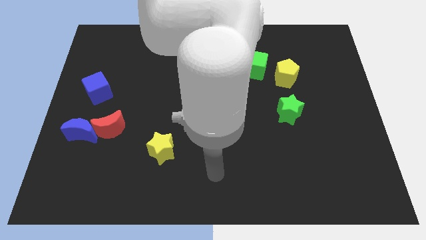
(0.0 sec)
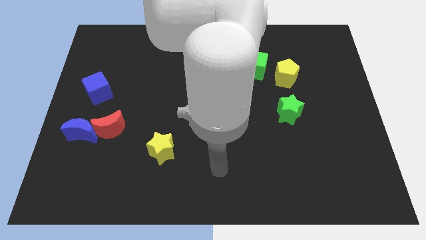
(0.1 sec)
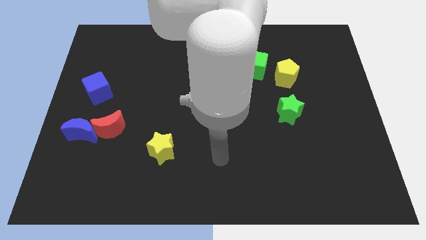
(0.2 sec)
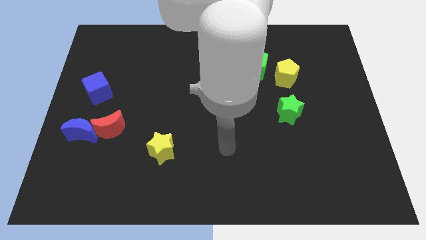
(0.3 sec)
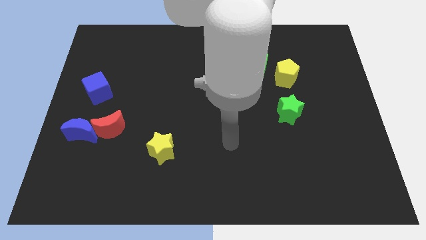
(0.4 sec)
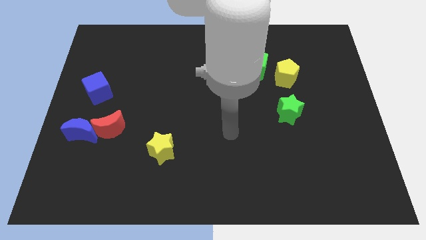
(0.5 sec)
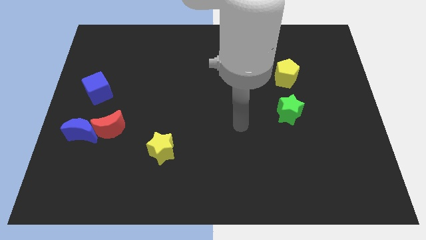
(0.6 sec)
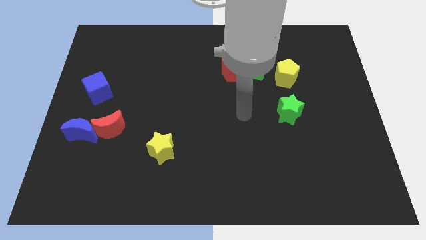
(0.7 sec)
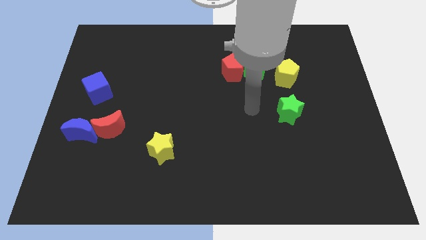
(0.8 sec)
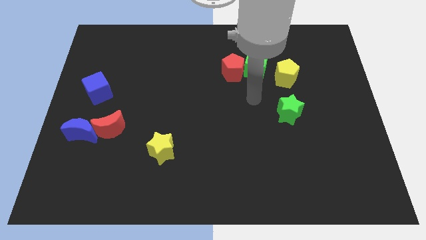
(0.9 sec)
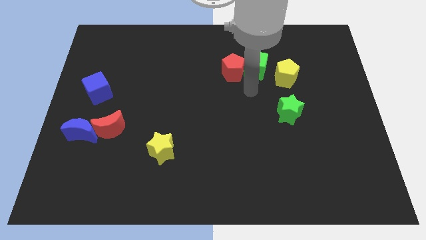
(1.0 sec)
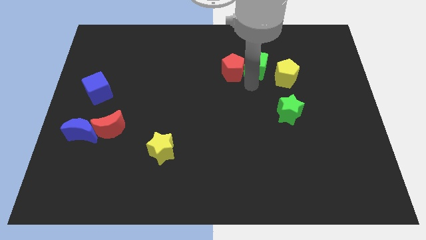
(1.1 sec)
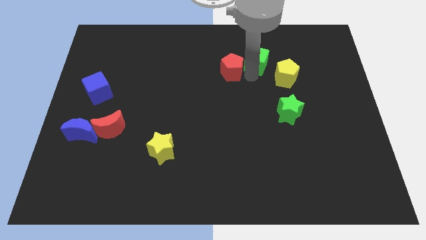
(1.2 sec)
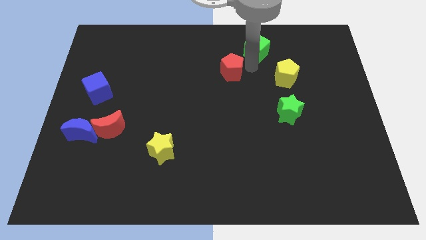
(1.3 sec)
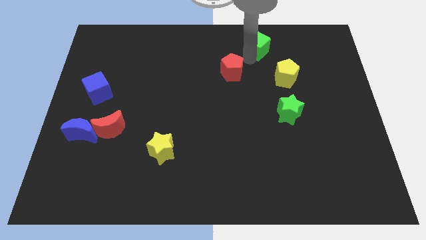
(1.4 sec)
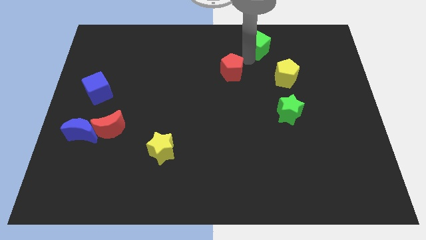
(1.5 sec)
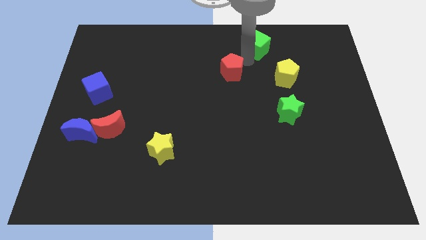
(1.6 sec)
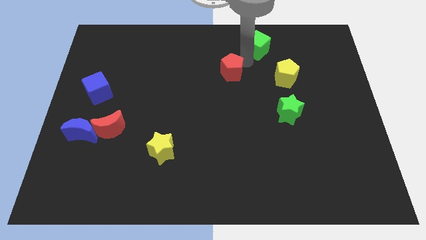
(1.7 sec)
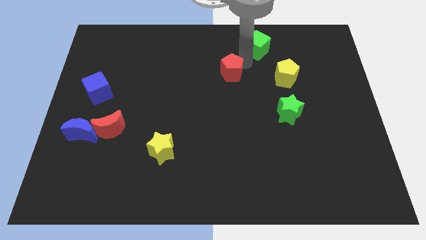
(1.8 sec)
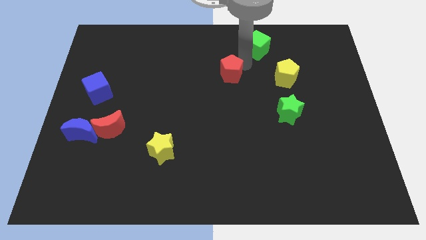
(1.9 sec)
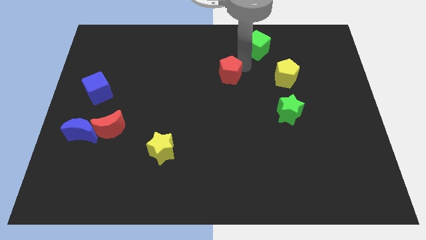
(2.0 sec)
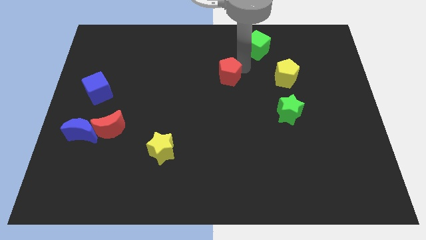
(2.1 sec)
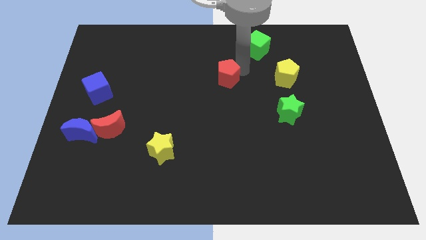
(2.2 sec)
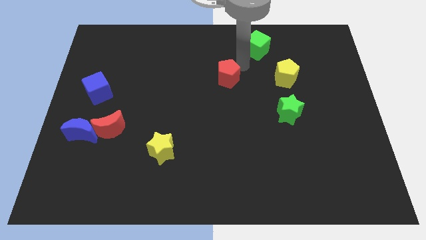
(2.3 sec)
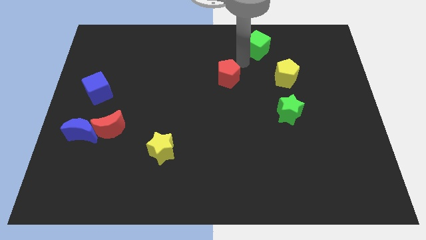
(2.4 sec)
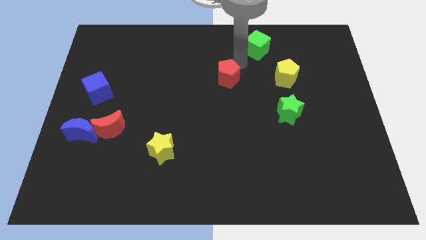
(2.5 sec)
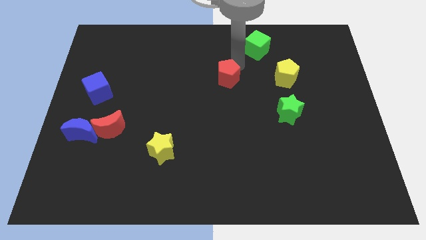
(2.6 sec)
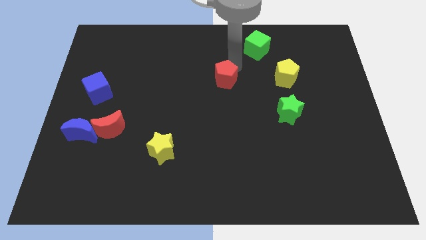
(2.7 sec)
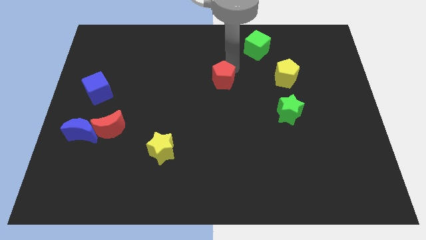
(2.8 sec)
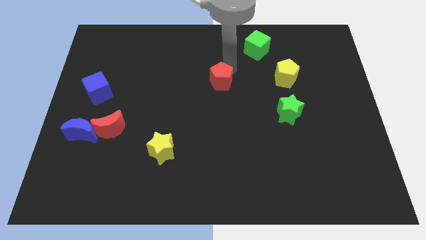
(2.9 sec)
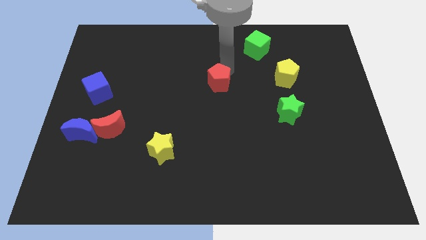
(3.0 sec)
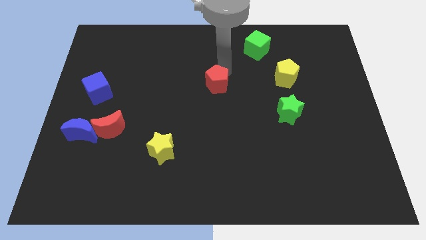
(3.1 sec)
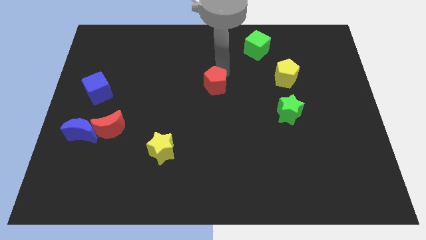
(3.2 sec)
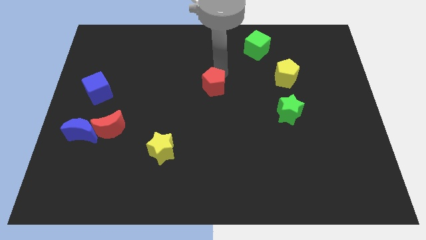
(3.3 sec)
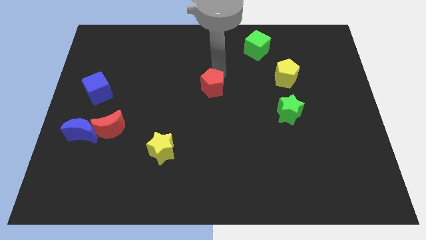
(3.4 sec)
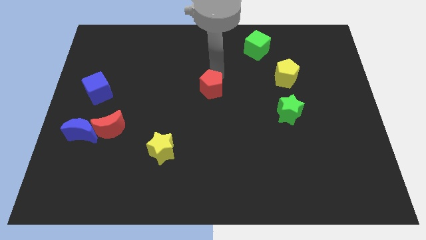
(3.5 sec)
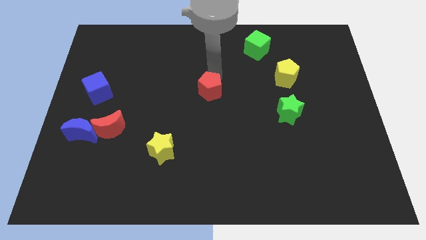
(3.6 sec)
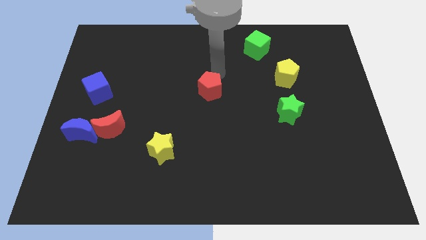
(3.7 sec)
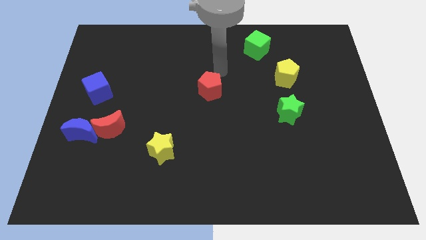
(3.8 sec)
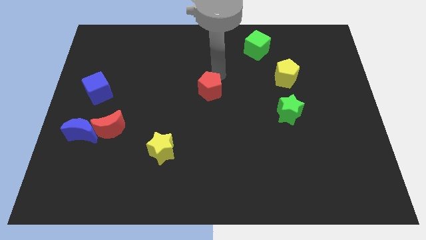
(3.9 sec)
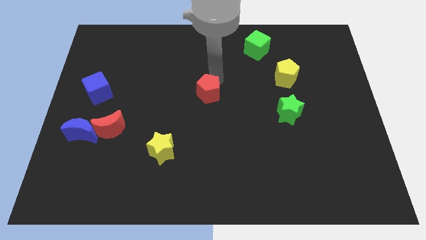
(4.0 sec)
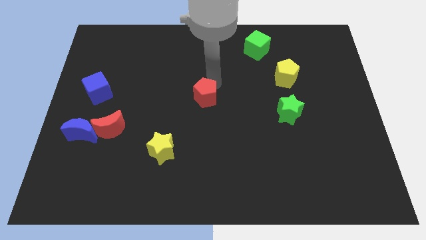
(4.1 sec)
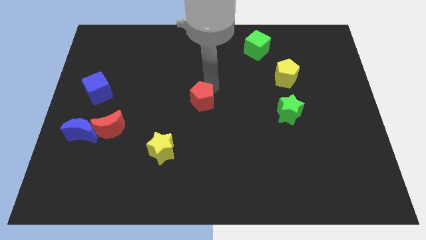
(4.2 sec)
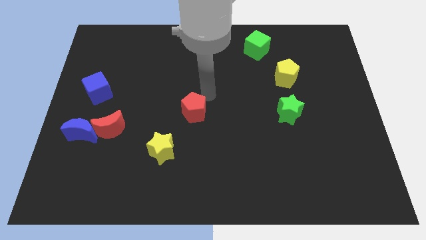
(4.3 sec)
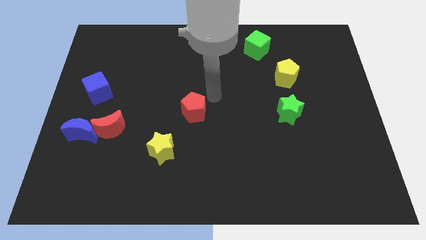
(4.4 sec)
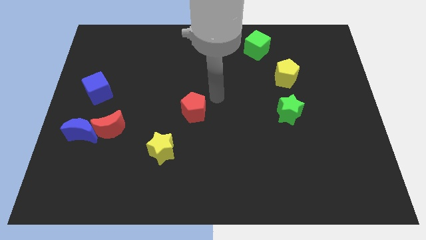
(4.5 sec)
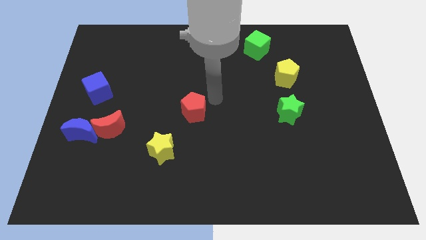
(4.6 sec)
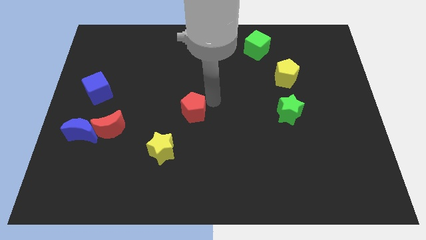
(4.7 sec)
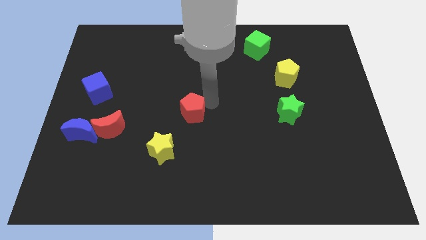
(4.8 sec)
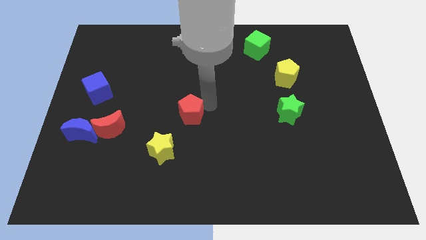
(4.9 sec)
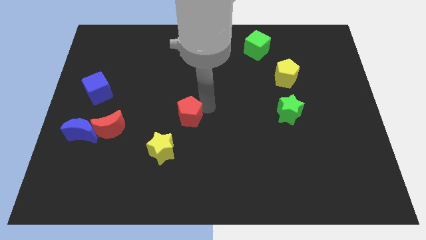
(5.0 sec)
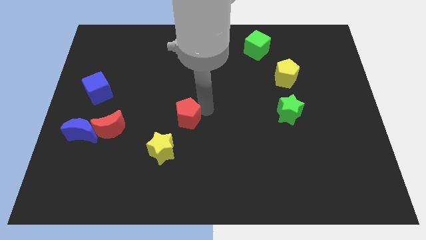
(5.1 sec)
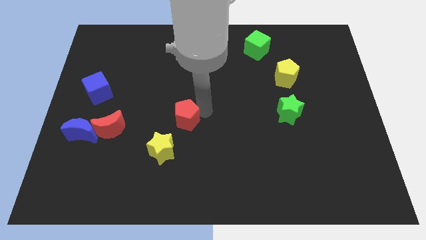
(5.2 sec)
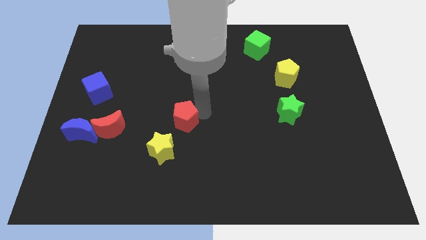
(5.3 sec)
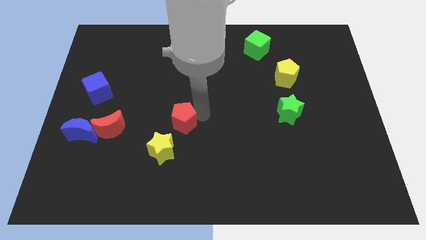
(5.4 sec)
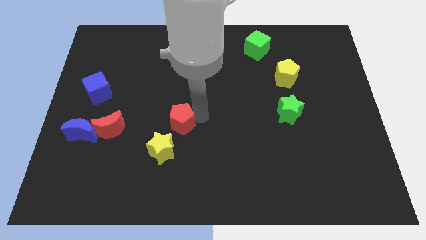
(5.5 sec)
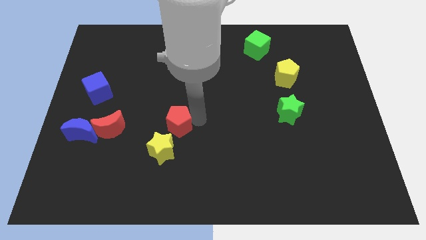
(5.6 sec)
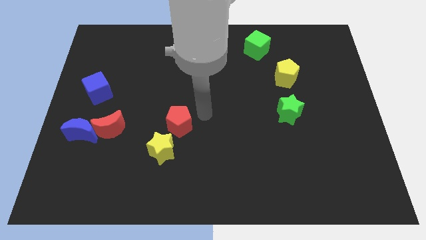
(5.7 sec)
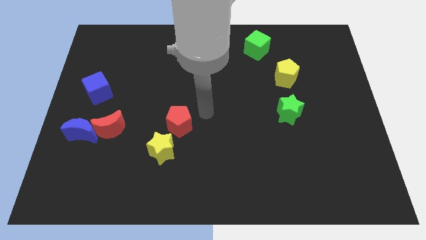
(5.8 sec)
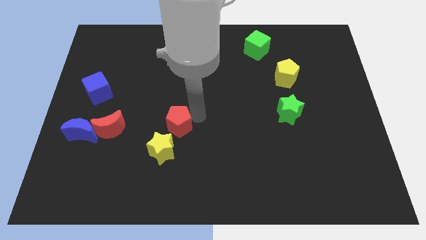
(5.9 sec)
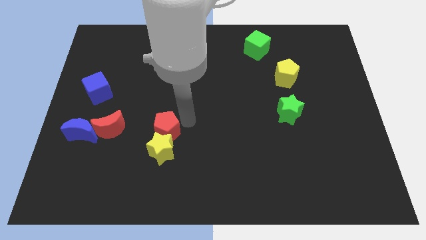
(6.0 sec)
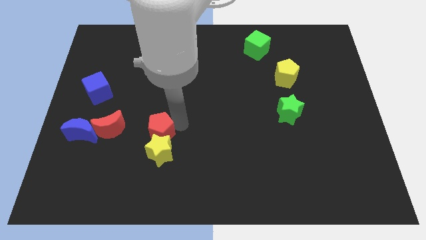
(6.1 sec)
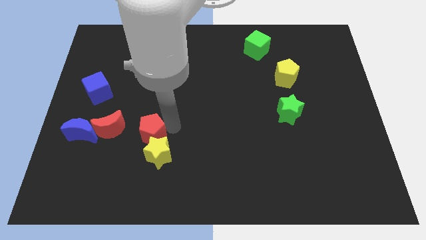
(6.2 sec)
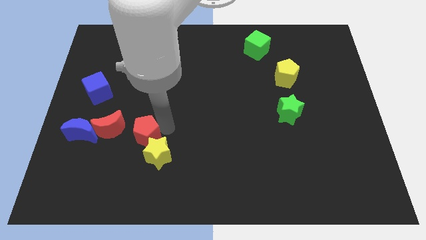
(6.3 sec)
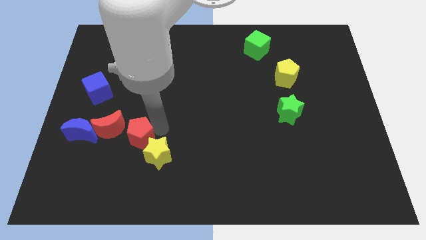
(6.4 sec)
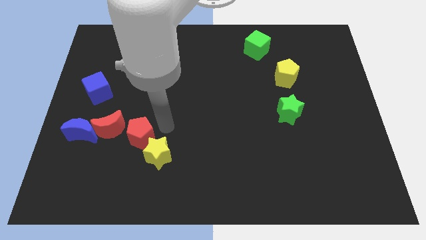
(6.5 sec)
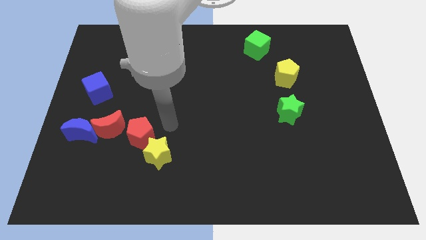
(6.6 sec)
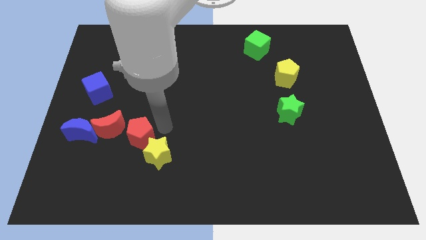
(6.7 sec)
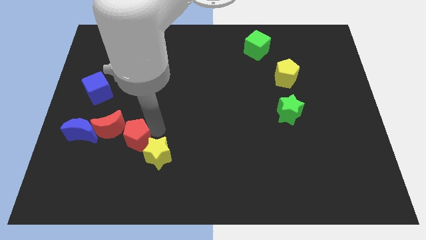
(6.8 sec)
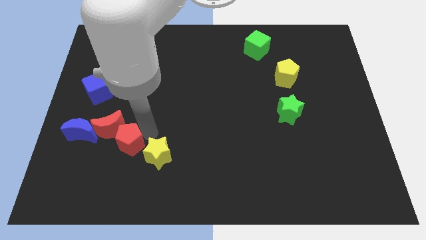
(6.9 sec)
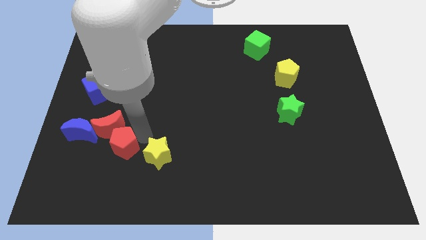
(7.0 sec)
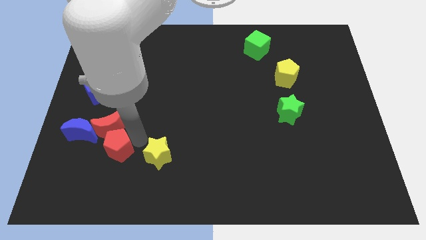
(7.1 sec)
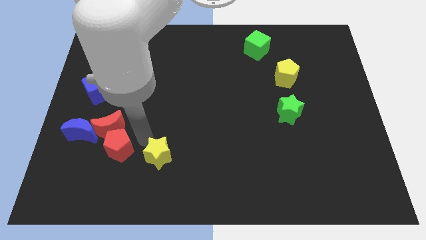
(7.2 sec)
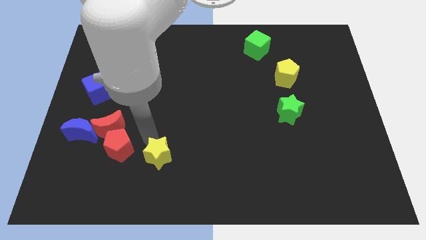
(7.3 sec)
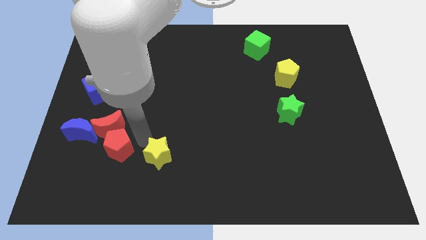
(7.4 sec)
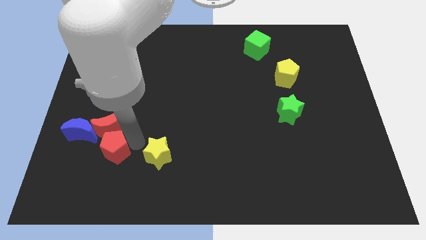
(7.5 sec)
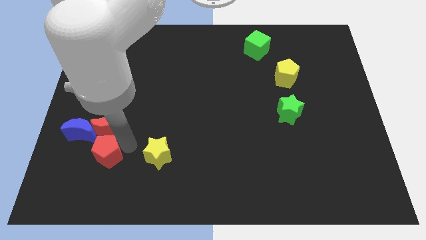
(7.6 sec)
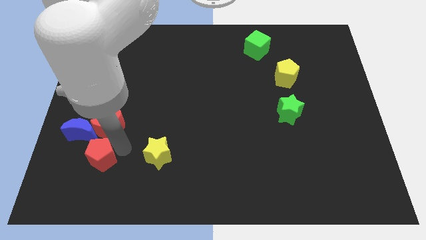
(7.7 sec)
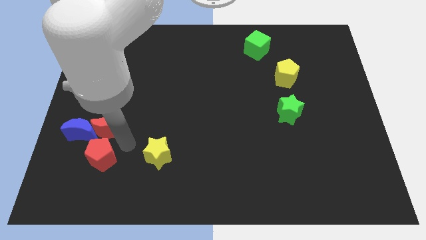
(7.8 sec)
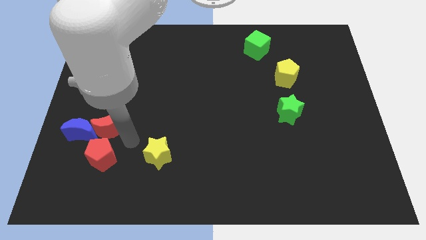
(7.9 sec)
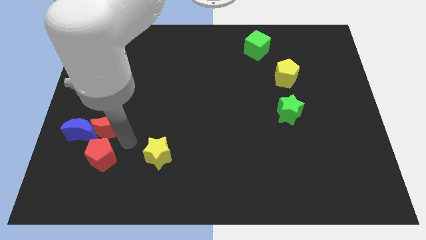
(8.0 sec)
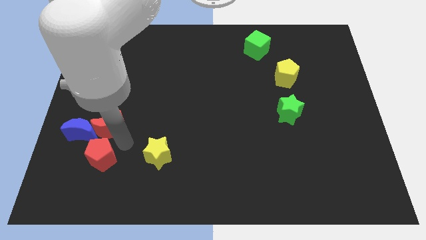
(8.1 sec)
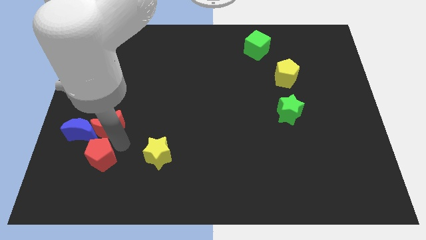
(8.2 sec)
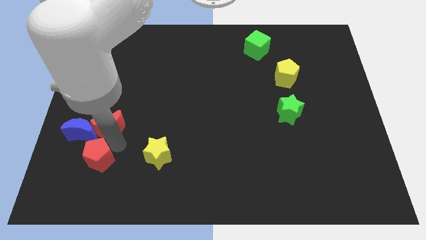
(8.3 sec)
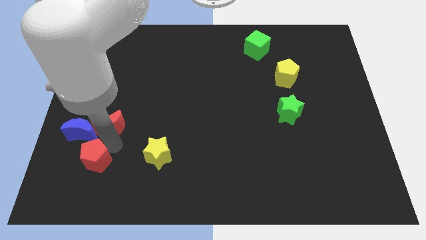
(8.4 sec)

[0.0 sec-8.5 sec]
push the red pentagon to the bottom of the blue moon
